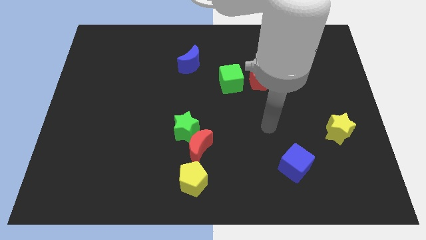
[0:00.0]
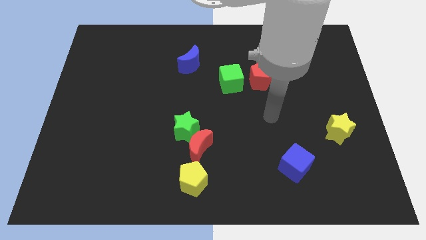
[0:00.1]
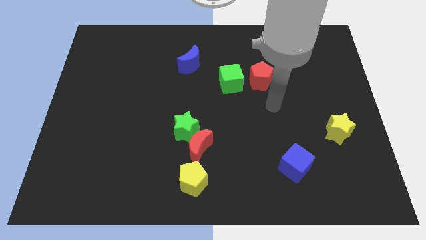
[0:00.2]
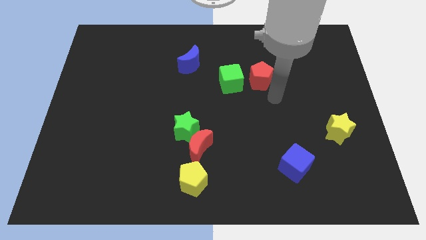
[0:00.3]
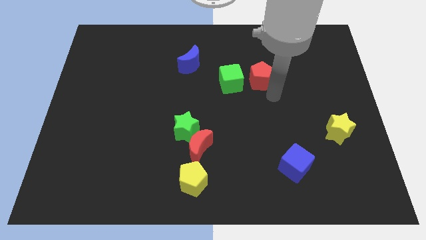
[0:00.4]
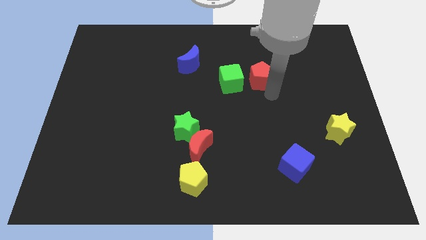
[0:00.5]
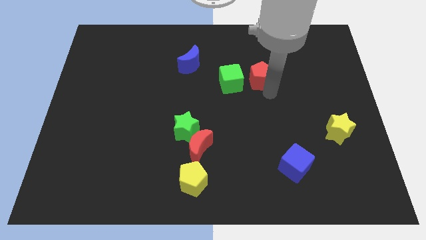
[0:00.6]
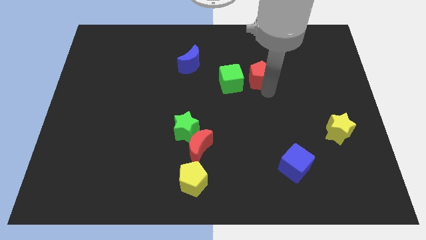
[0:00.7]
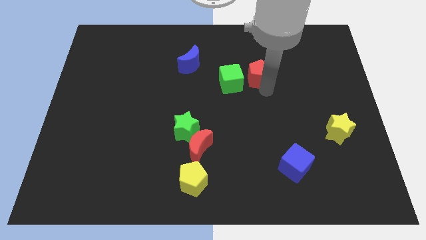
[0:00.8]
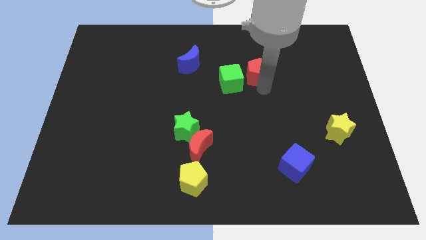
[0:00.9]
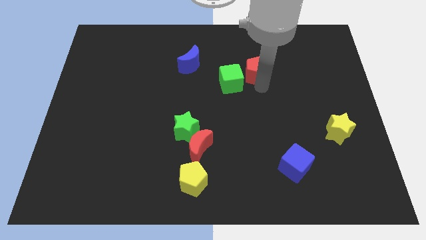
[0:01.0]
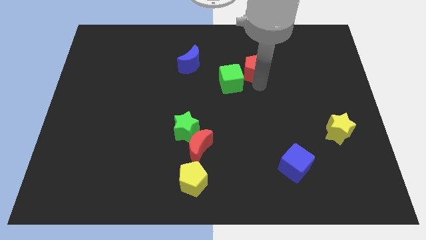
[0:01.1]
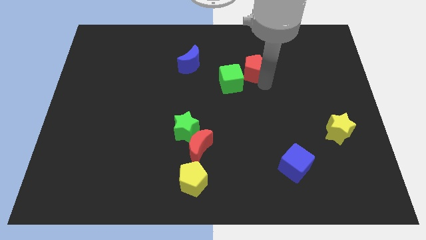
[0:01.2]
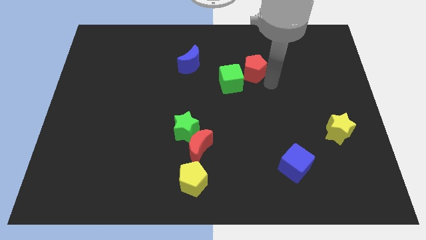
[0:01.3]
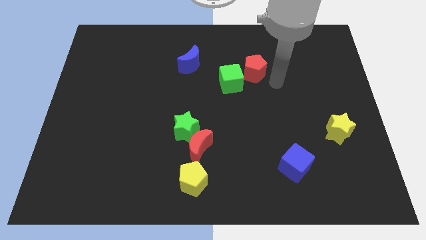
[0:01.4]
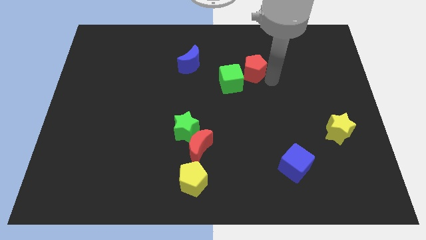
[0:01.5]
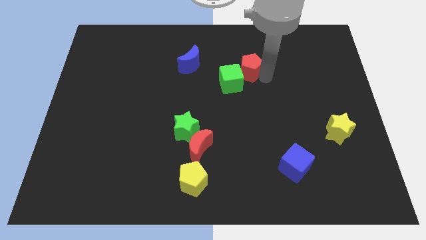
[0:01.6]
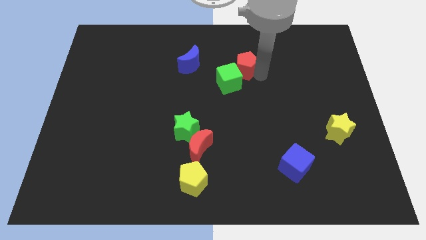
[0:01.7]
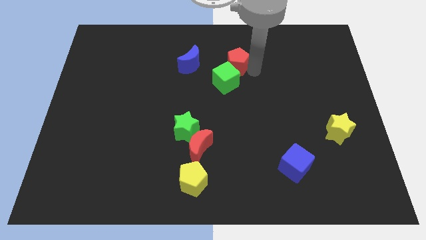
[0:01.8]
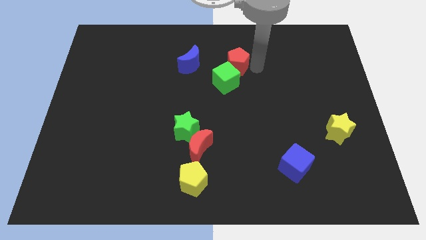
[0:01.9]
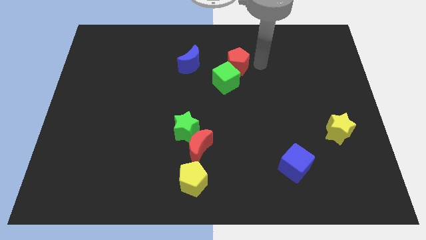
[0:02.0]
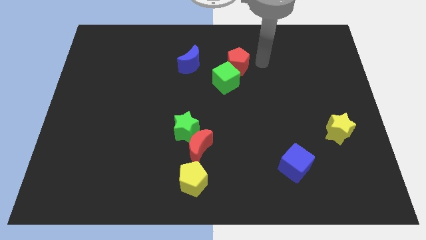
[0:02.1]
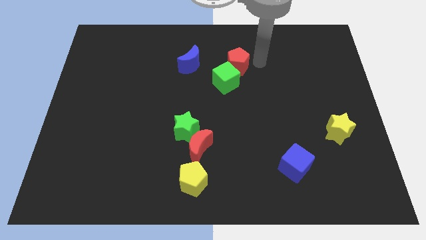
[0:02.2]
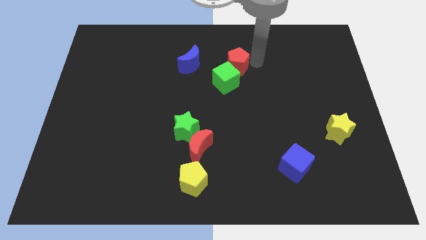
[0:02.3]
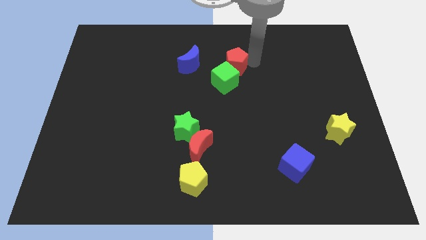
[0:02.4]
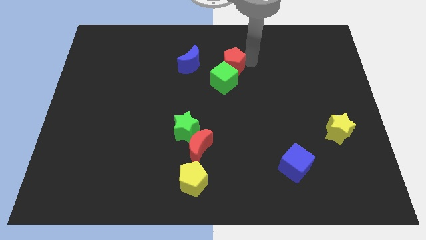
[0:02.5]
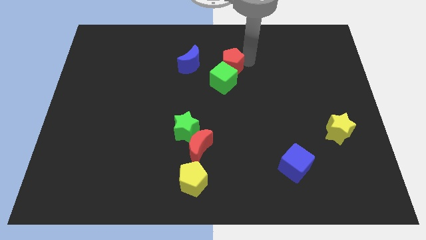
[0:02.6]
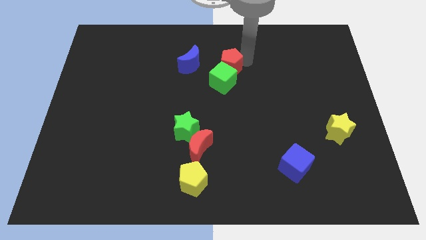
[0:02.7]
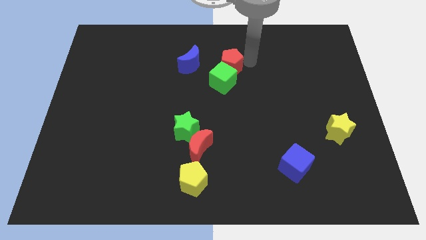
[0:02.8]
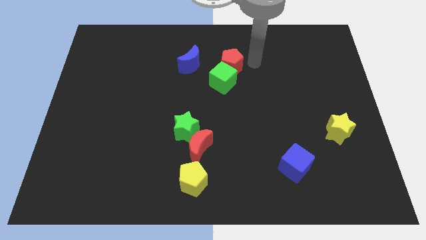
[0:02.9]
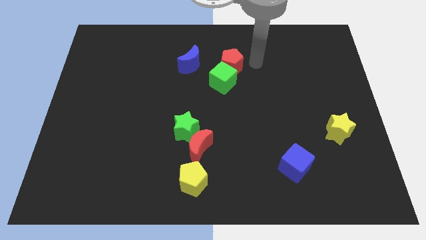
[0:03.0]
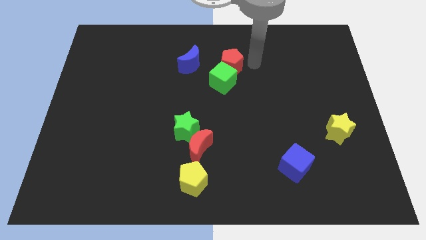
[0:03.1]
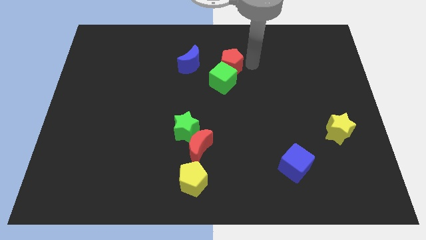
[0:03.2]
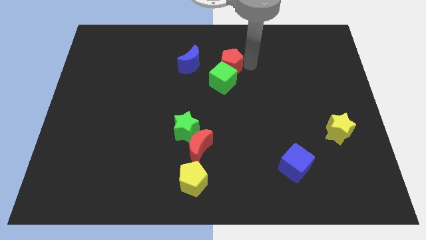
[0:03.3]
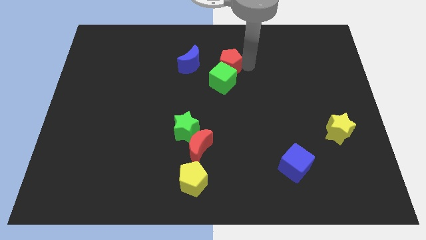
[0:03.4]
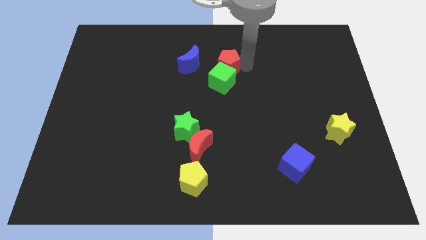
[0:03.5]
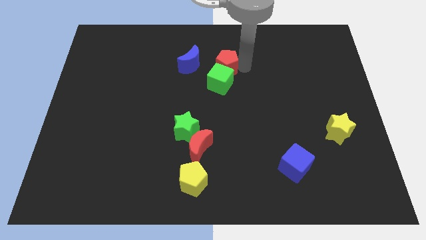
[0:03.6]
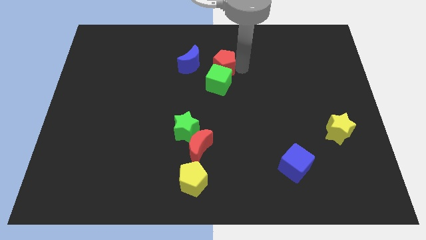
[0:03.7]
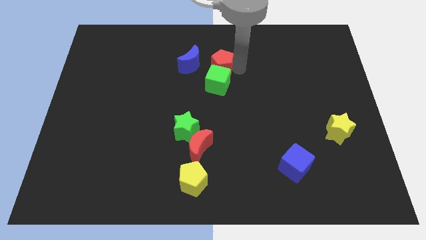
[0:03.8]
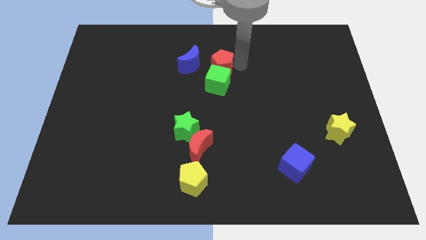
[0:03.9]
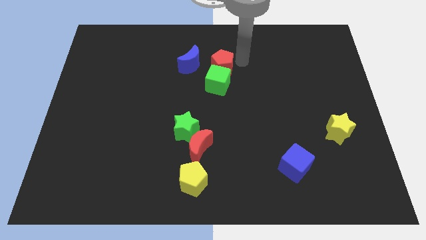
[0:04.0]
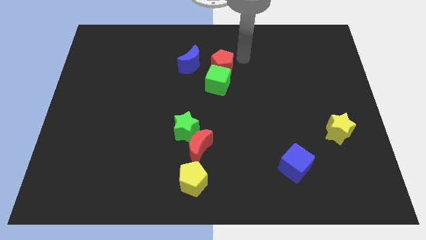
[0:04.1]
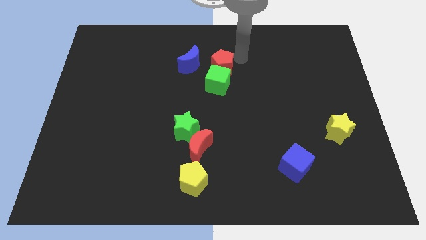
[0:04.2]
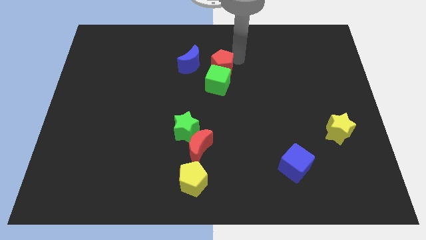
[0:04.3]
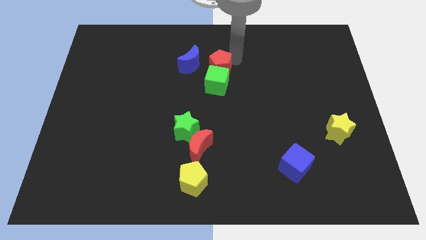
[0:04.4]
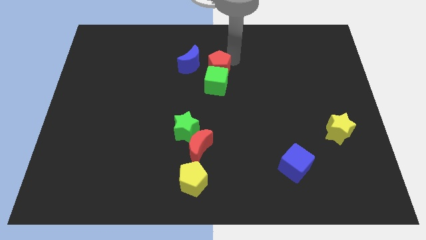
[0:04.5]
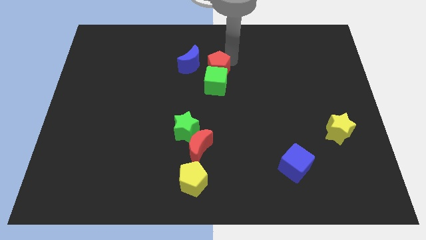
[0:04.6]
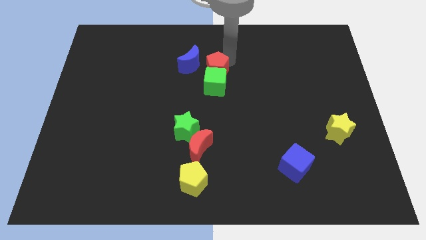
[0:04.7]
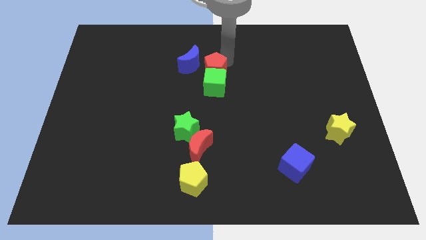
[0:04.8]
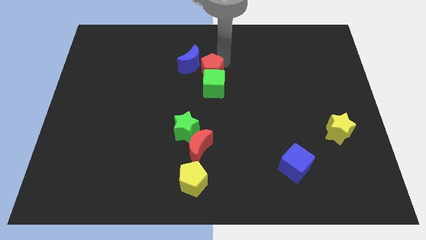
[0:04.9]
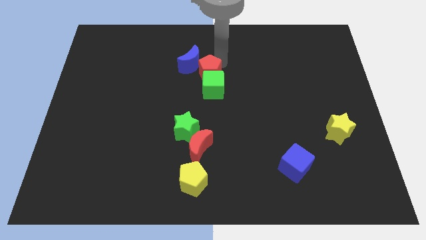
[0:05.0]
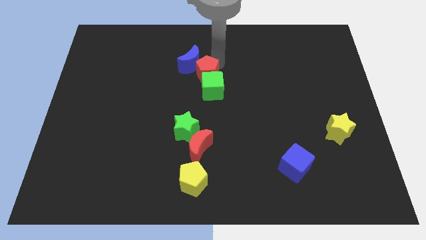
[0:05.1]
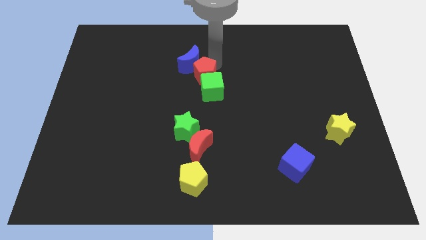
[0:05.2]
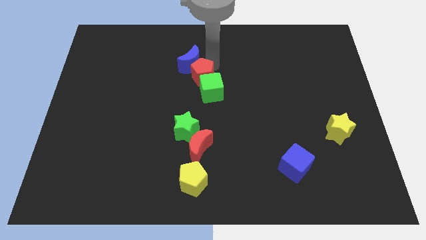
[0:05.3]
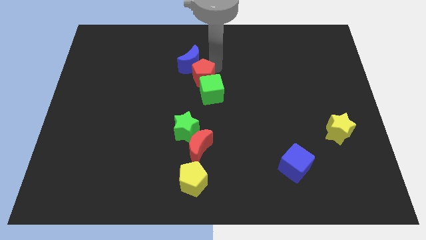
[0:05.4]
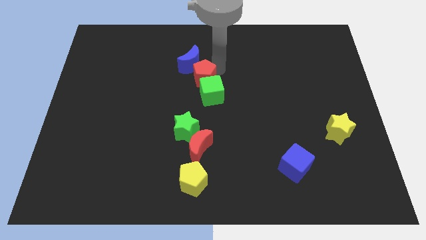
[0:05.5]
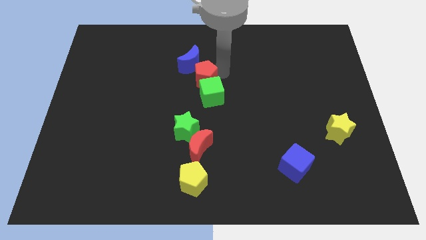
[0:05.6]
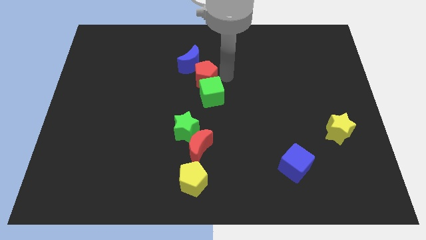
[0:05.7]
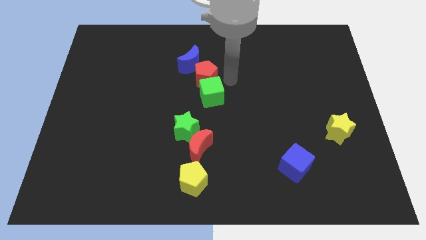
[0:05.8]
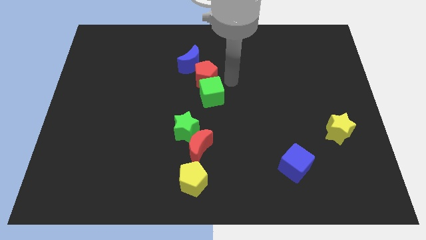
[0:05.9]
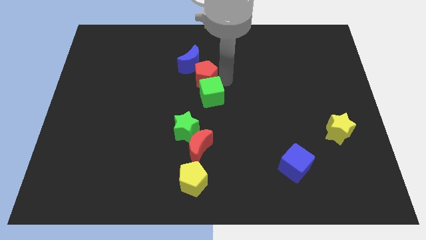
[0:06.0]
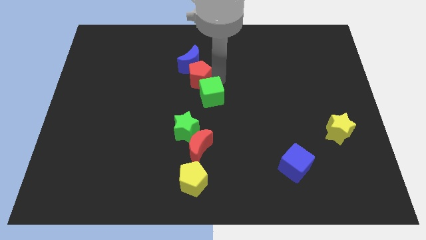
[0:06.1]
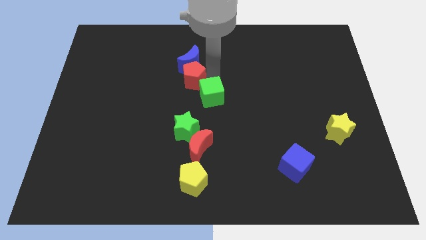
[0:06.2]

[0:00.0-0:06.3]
move the red pentagon to the bottom left side of the blue moon
